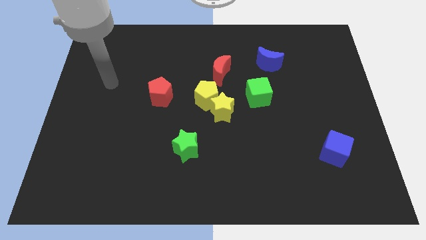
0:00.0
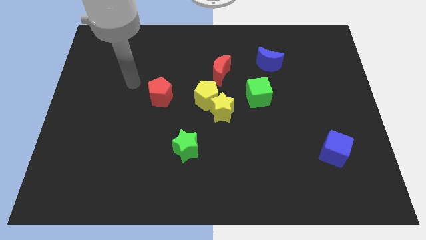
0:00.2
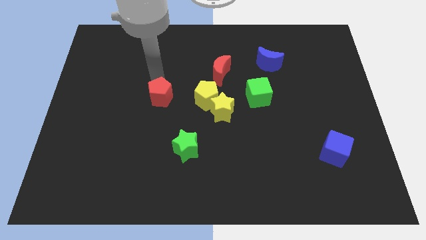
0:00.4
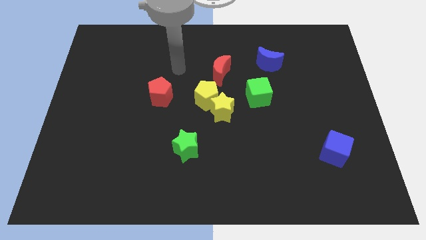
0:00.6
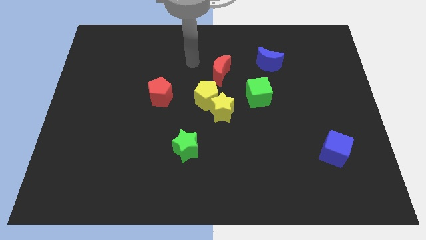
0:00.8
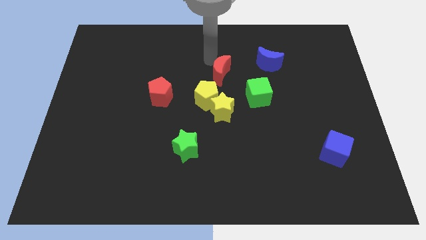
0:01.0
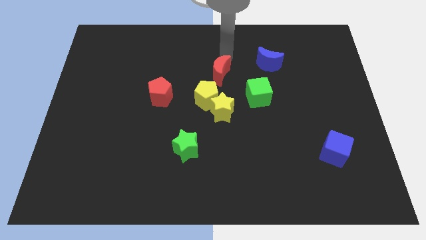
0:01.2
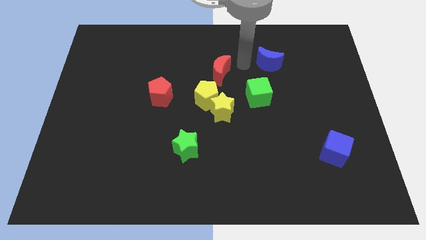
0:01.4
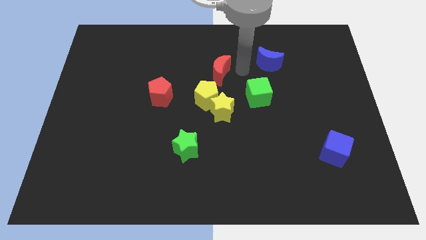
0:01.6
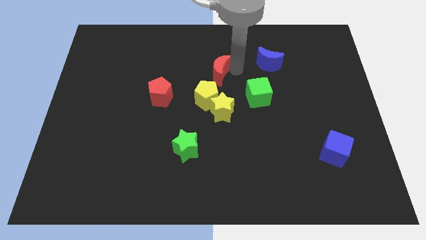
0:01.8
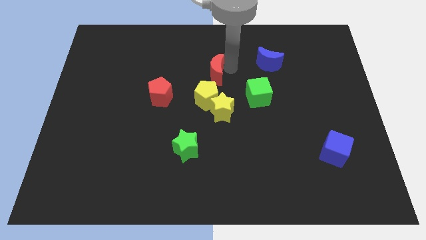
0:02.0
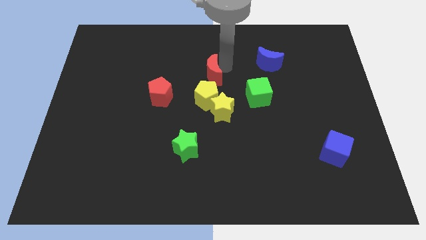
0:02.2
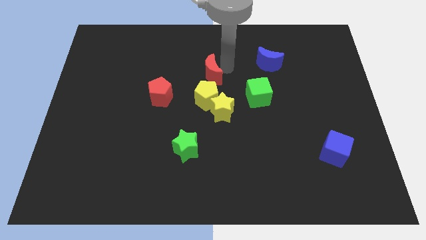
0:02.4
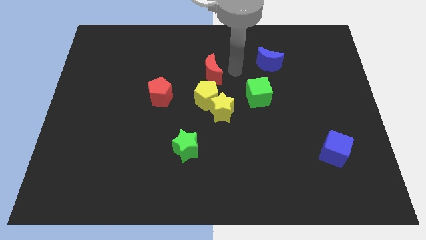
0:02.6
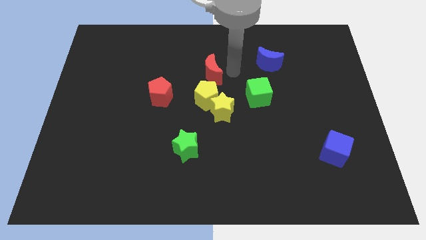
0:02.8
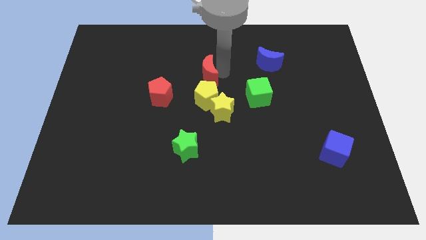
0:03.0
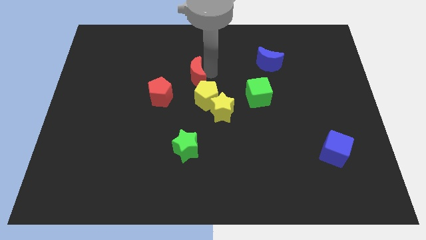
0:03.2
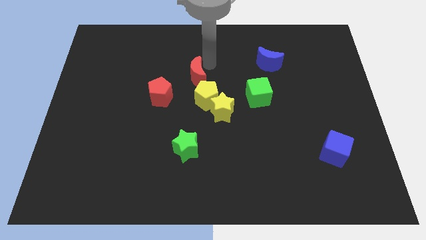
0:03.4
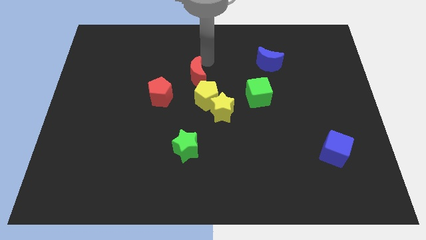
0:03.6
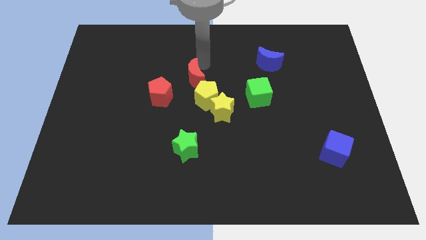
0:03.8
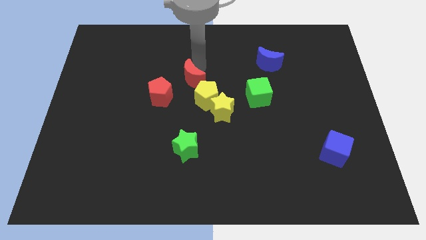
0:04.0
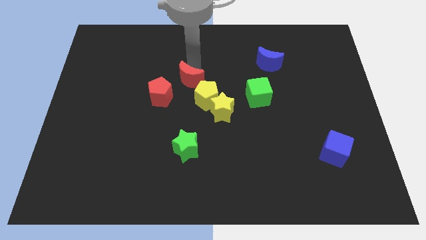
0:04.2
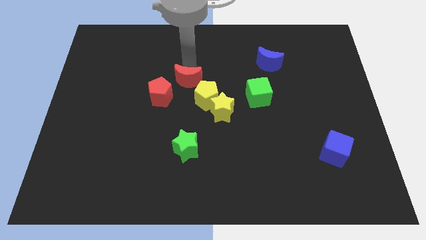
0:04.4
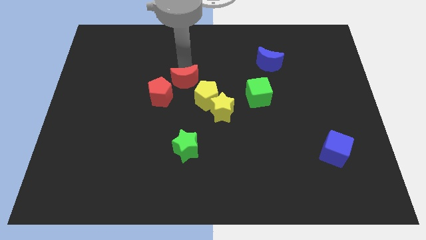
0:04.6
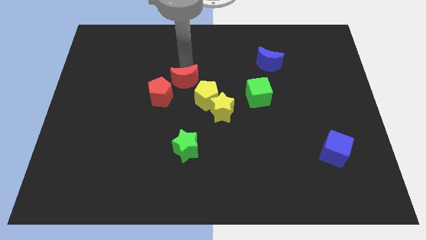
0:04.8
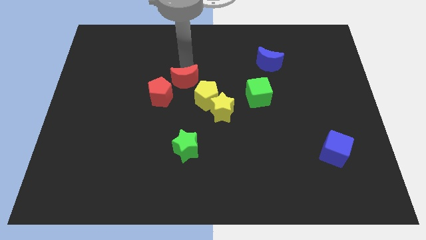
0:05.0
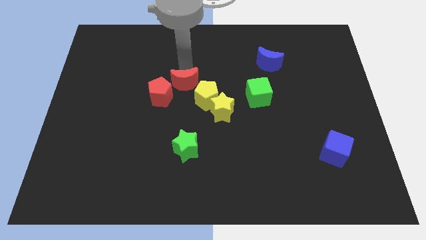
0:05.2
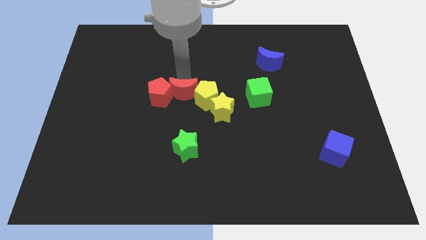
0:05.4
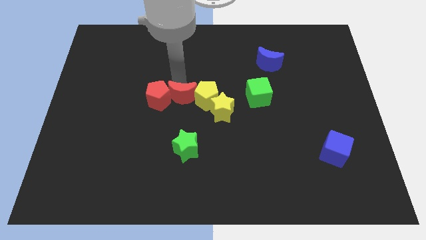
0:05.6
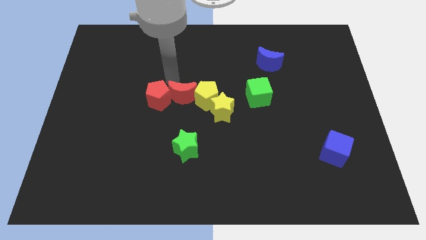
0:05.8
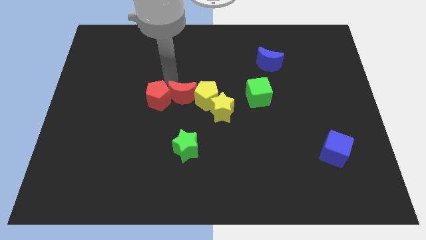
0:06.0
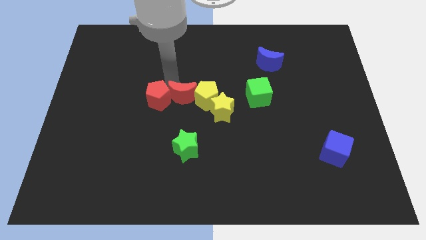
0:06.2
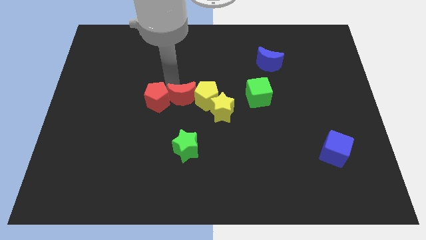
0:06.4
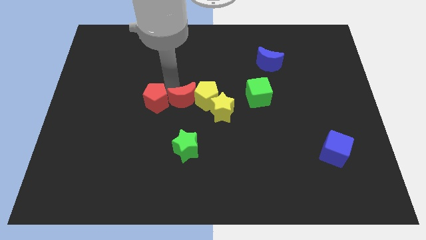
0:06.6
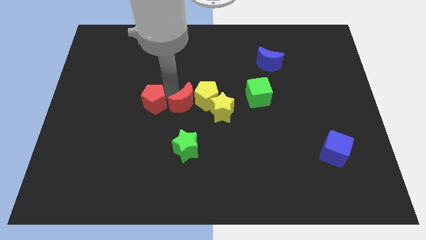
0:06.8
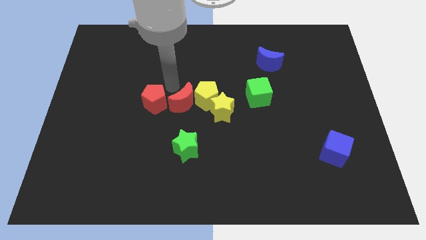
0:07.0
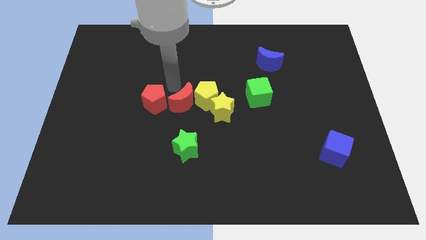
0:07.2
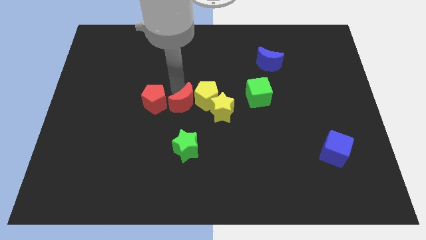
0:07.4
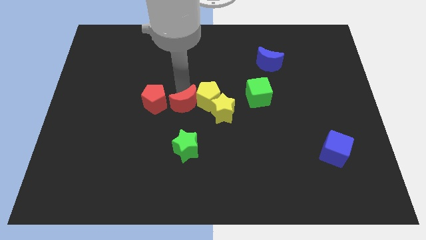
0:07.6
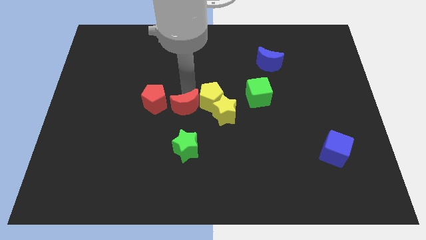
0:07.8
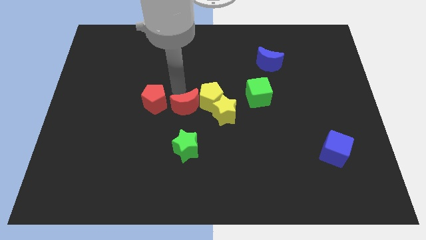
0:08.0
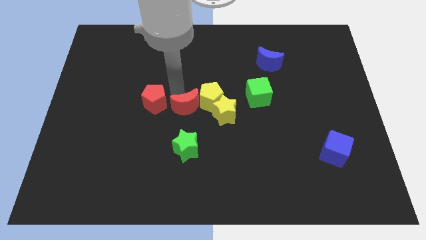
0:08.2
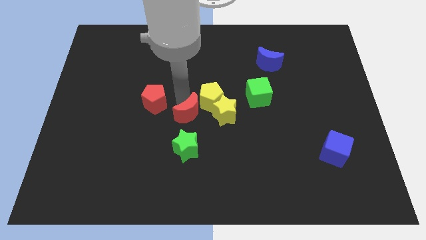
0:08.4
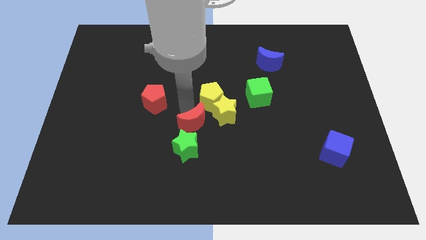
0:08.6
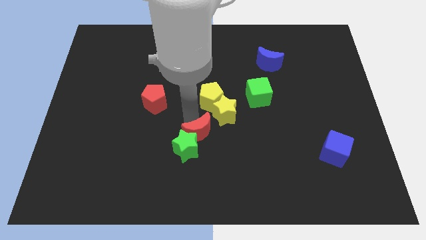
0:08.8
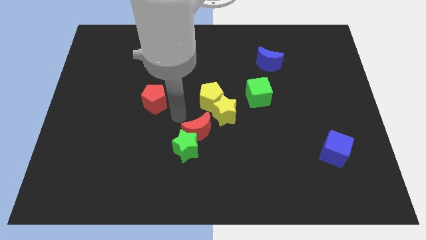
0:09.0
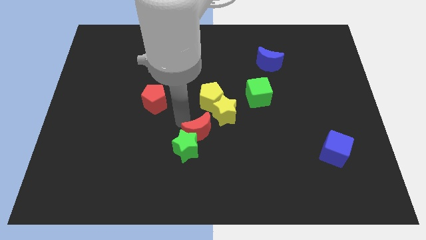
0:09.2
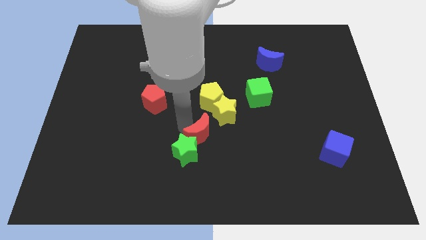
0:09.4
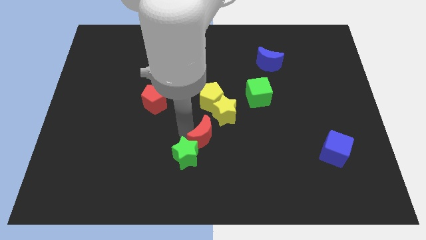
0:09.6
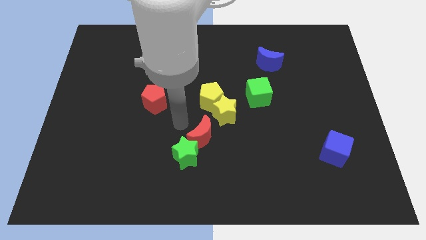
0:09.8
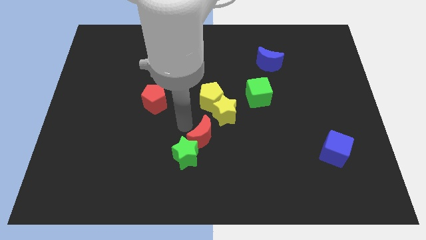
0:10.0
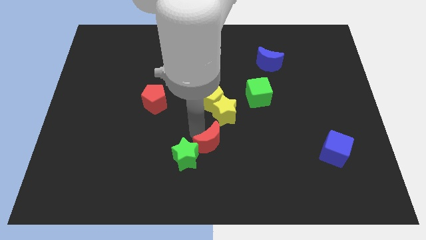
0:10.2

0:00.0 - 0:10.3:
slide the red moon to the bottom side of the yellow star

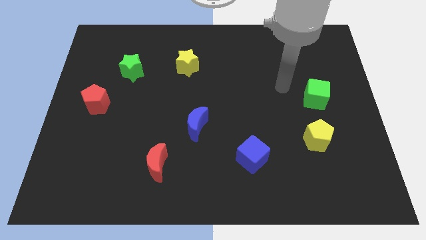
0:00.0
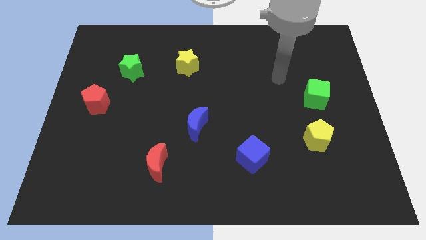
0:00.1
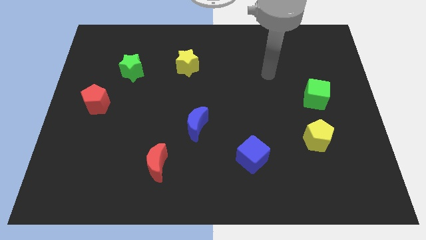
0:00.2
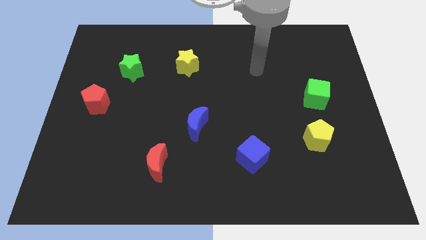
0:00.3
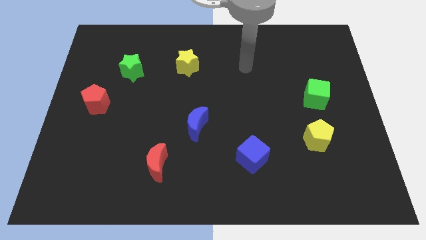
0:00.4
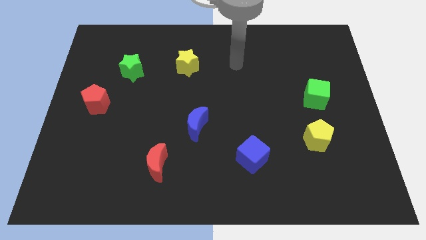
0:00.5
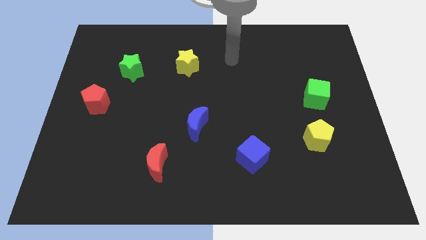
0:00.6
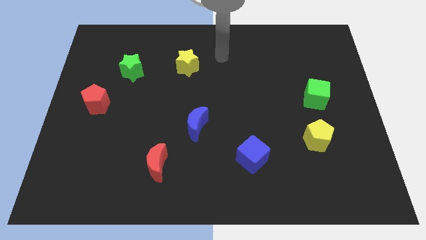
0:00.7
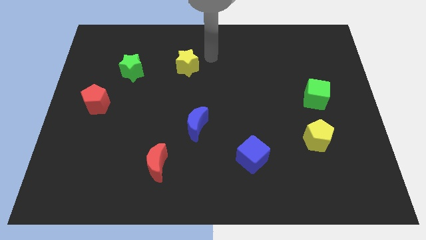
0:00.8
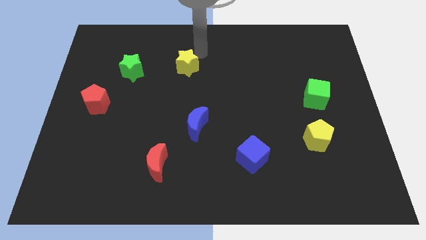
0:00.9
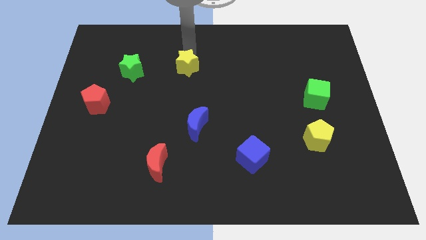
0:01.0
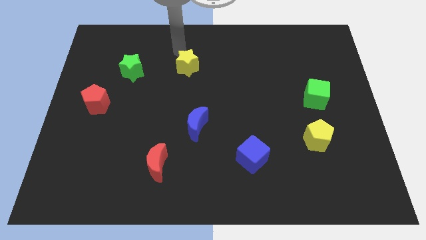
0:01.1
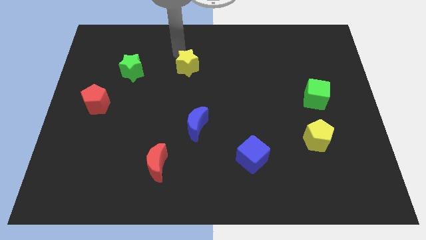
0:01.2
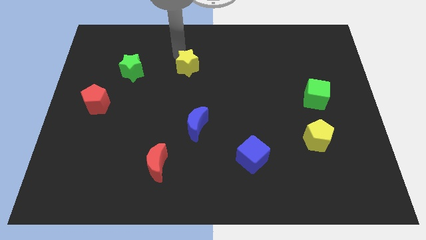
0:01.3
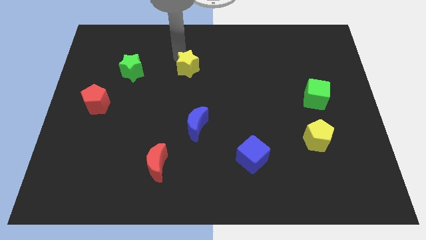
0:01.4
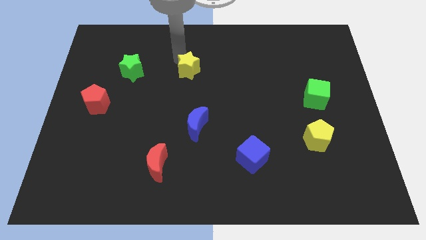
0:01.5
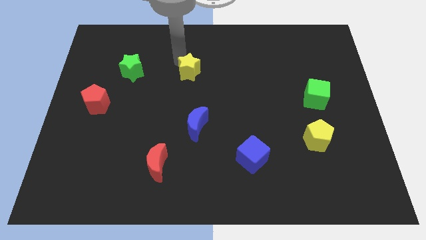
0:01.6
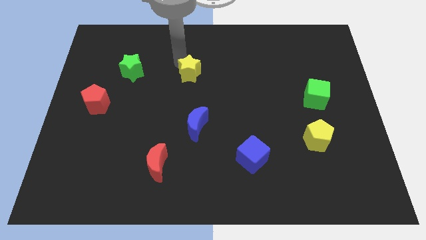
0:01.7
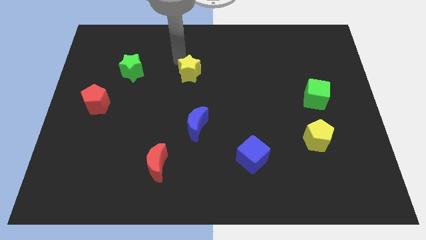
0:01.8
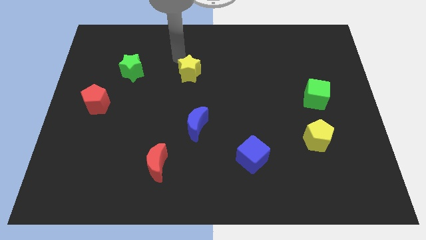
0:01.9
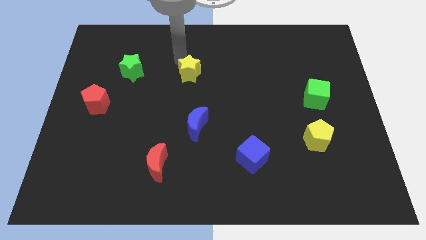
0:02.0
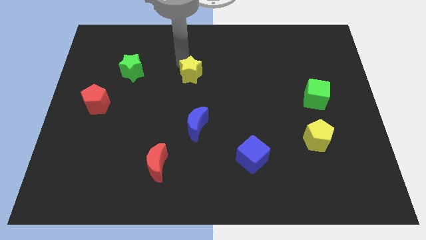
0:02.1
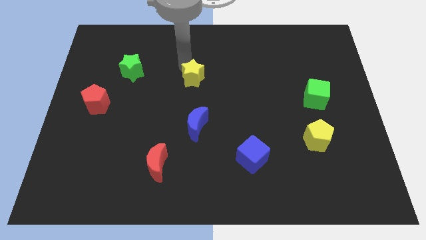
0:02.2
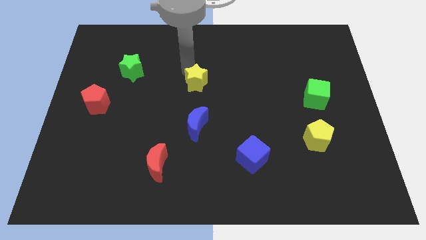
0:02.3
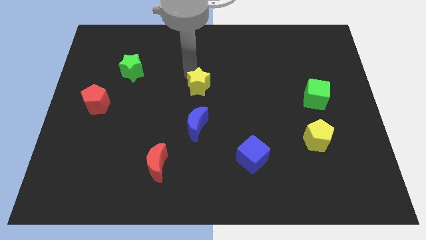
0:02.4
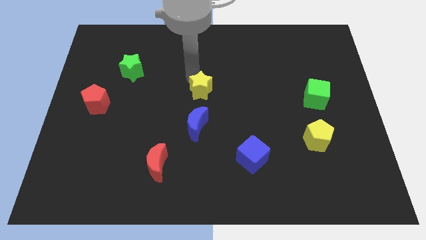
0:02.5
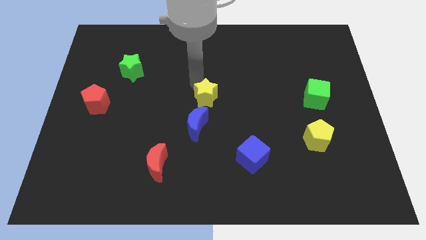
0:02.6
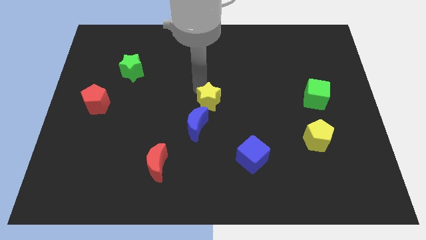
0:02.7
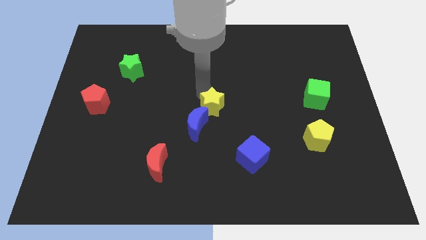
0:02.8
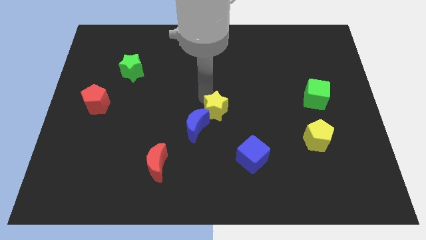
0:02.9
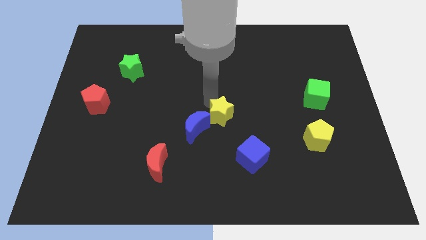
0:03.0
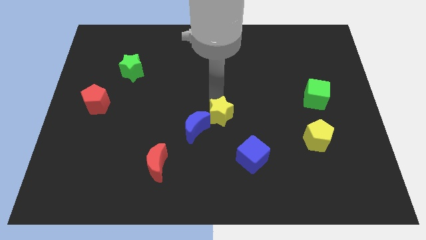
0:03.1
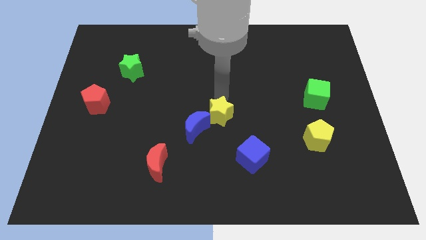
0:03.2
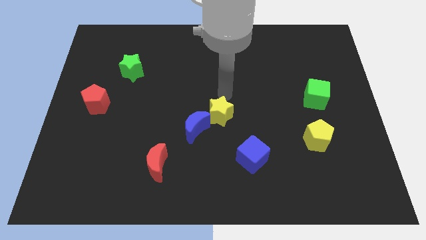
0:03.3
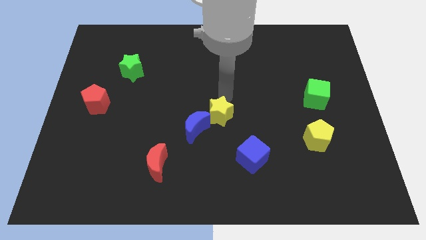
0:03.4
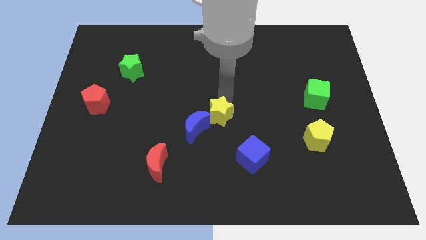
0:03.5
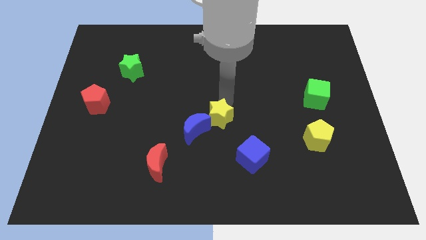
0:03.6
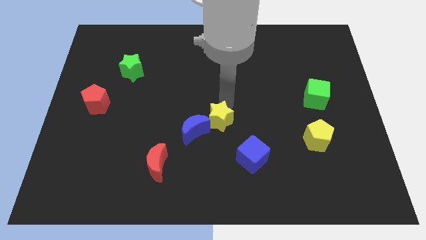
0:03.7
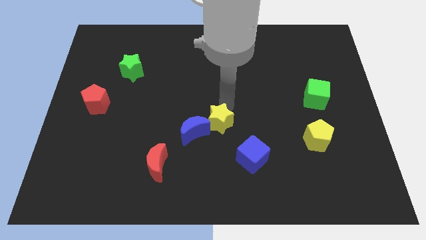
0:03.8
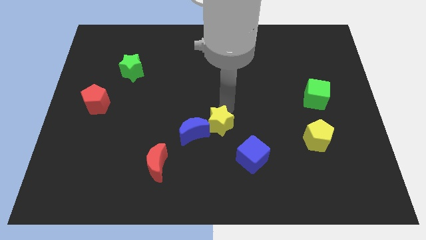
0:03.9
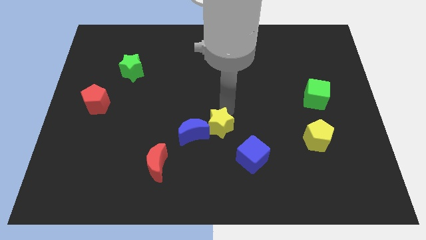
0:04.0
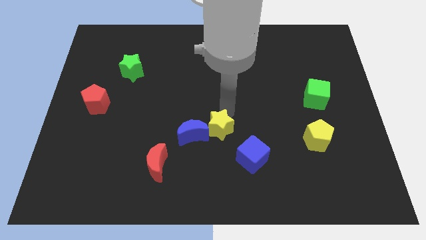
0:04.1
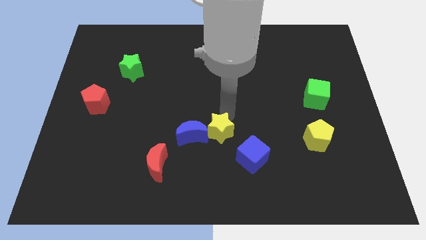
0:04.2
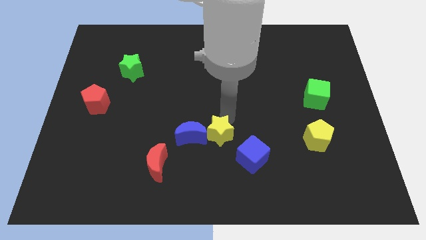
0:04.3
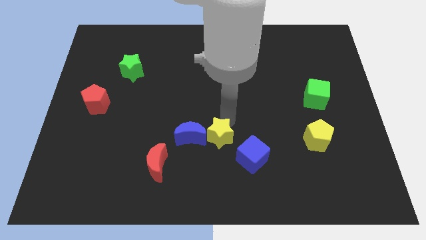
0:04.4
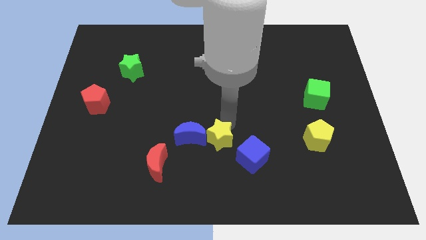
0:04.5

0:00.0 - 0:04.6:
push the yellow star to the left side of the blue cube
